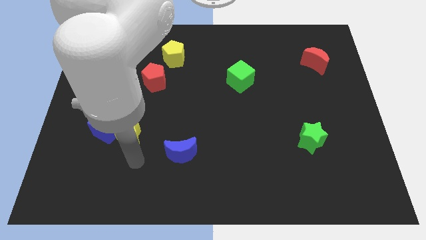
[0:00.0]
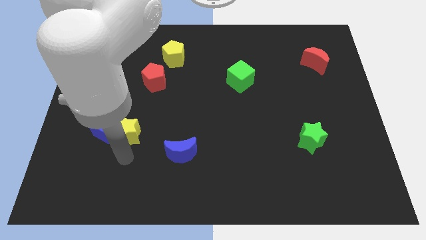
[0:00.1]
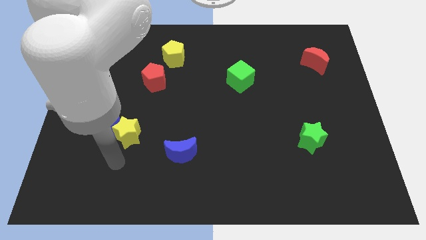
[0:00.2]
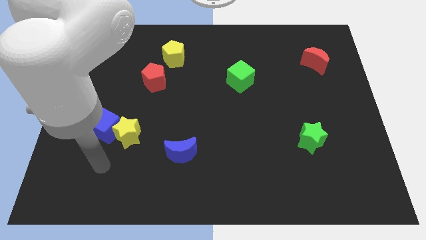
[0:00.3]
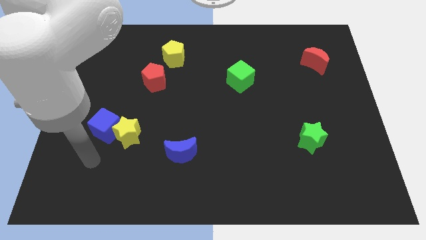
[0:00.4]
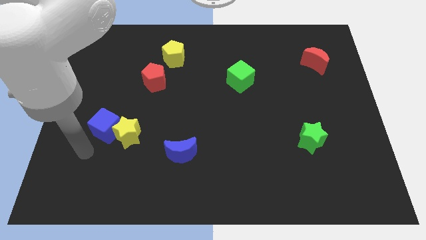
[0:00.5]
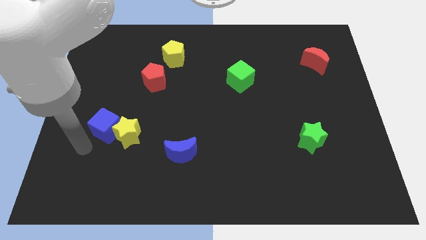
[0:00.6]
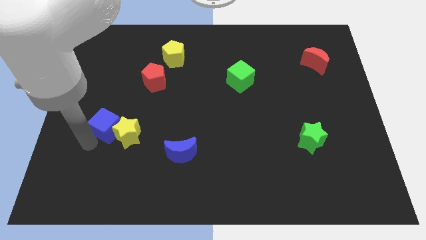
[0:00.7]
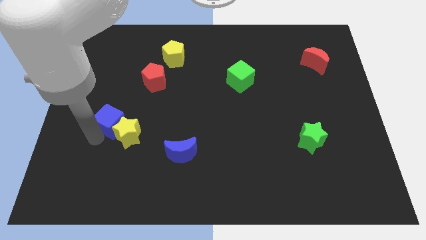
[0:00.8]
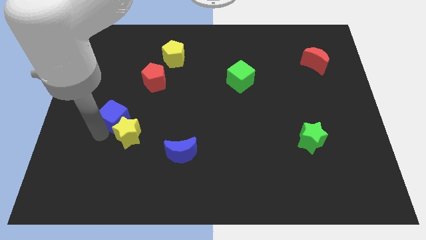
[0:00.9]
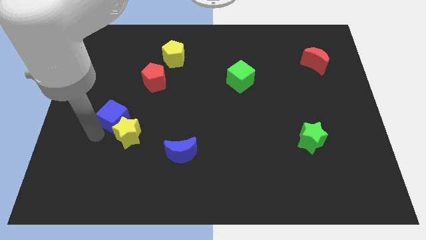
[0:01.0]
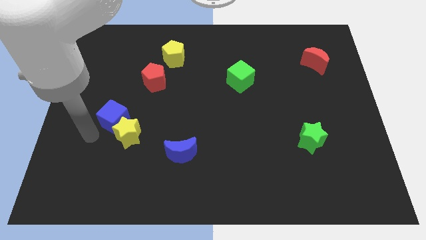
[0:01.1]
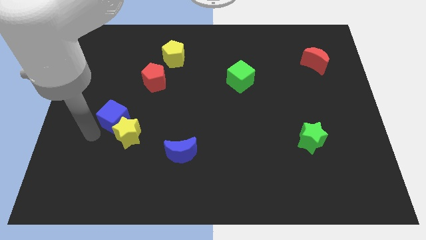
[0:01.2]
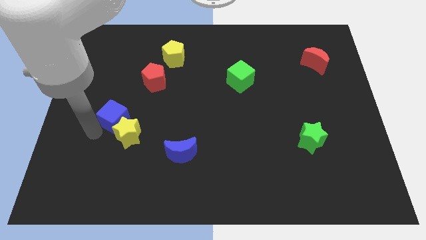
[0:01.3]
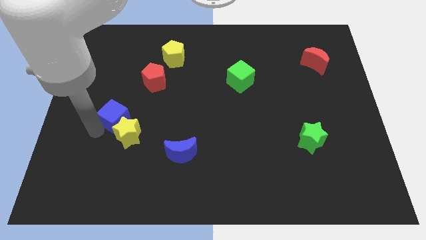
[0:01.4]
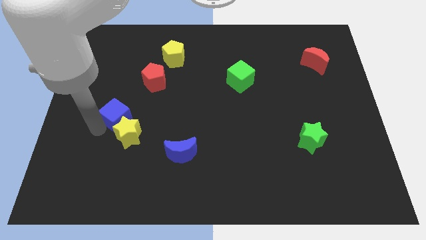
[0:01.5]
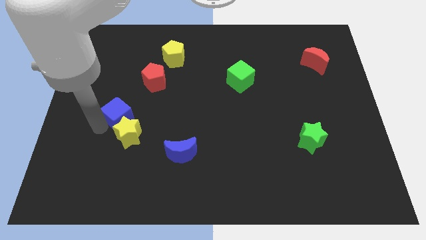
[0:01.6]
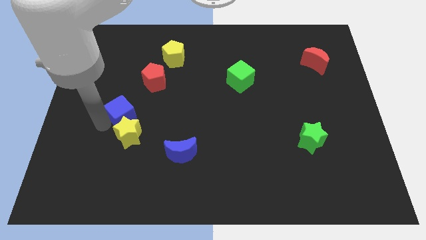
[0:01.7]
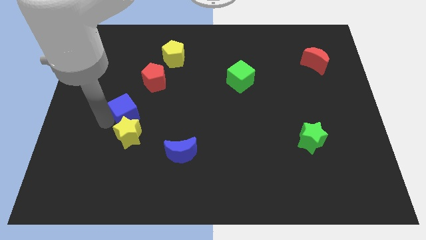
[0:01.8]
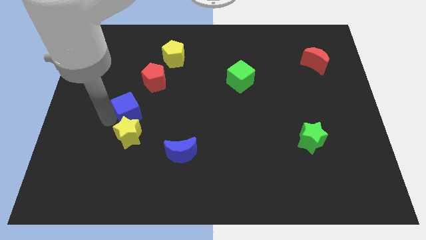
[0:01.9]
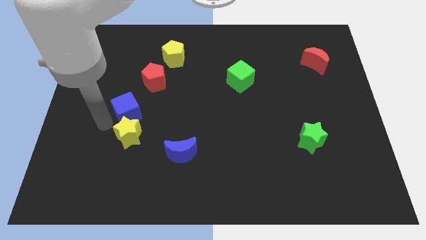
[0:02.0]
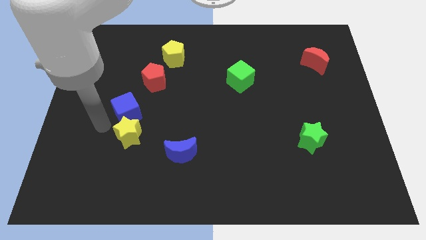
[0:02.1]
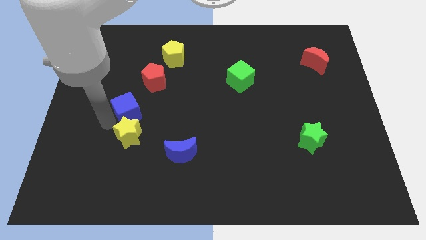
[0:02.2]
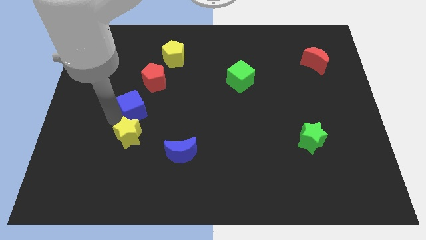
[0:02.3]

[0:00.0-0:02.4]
push the blue cube diagonally up and to the right a bit

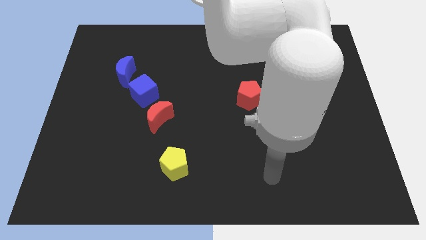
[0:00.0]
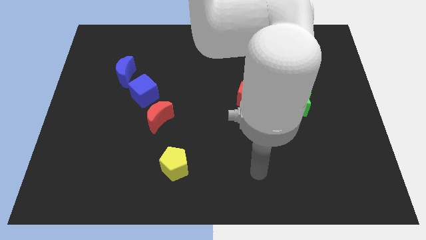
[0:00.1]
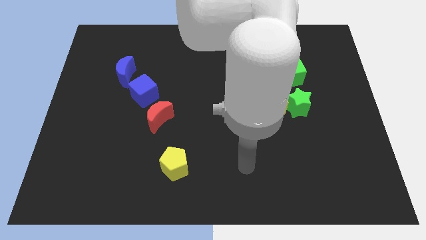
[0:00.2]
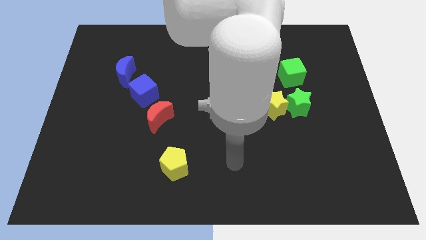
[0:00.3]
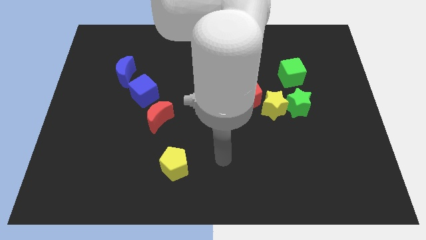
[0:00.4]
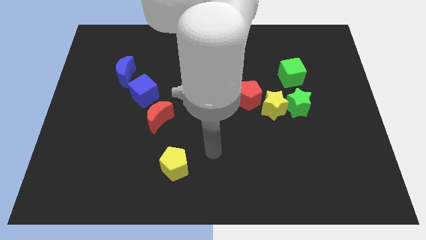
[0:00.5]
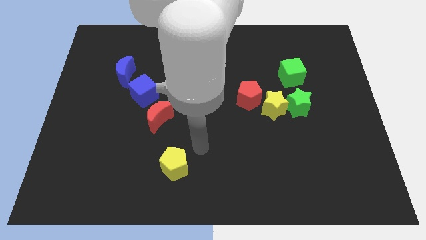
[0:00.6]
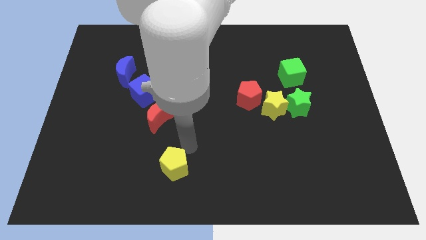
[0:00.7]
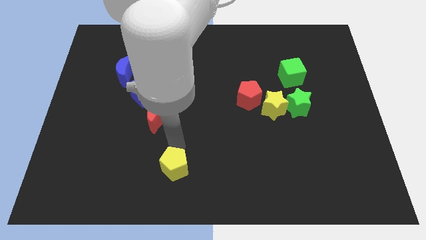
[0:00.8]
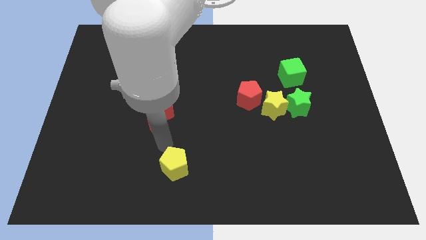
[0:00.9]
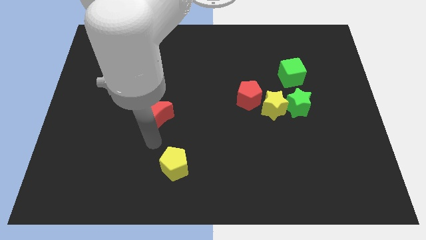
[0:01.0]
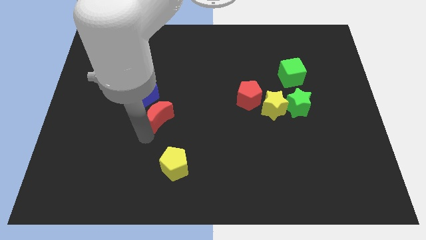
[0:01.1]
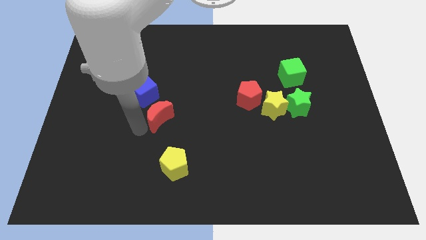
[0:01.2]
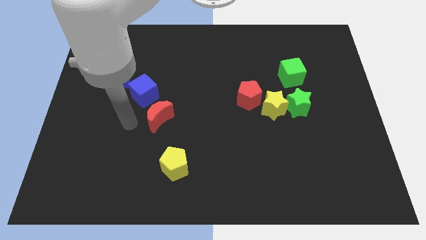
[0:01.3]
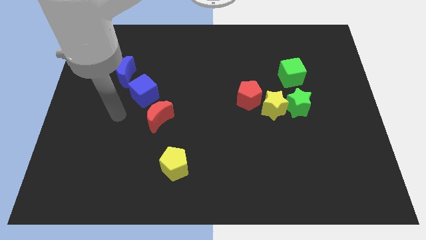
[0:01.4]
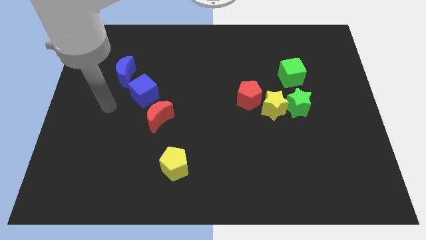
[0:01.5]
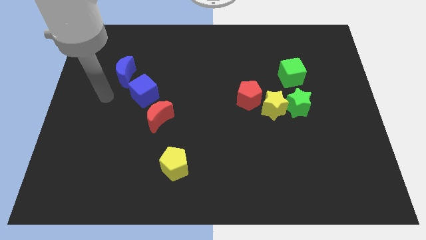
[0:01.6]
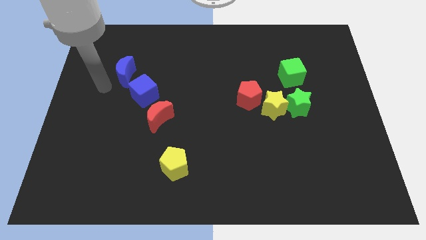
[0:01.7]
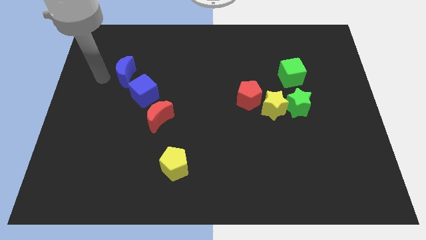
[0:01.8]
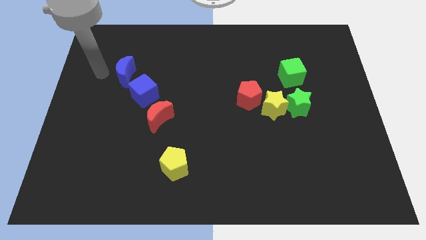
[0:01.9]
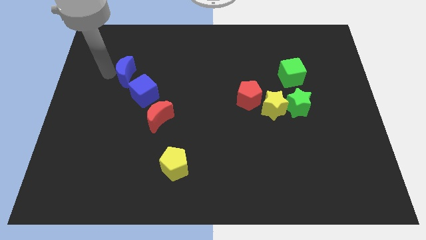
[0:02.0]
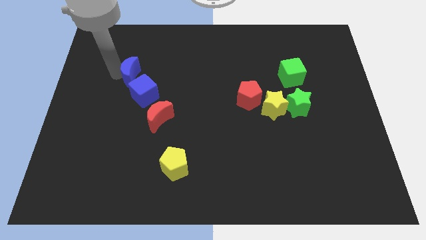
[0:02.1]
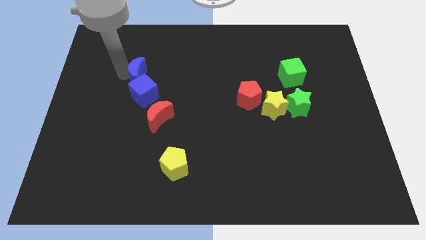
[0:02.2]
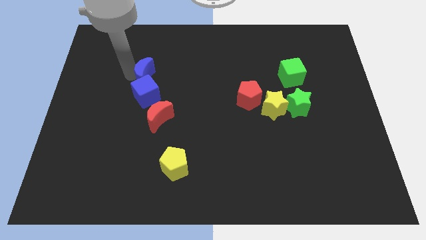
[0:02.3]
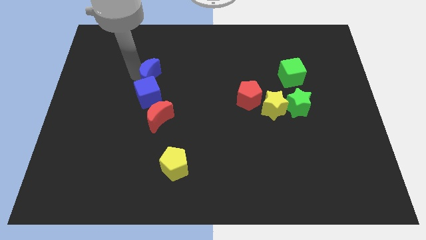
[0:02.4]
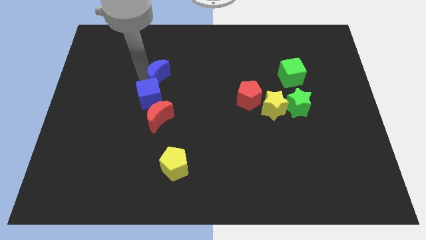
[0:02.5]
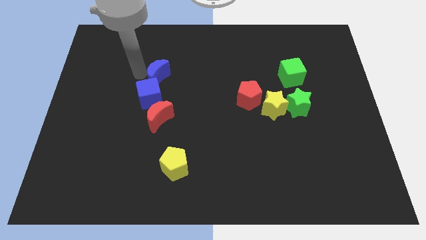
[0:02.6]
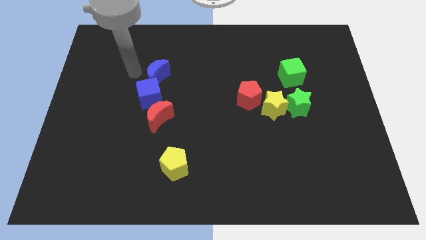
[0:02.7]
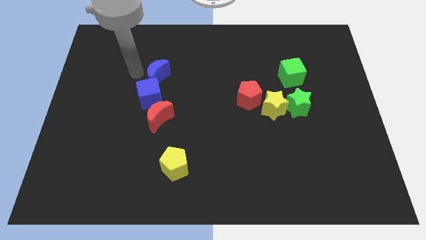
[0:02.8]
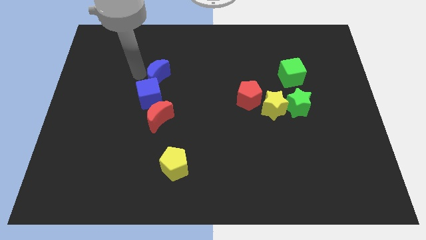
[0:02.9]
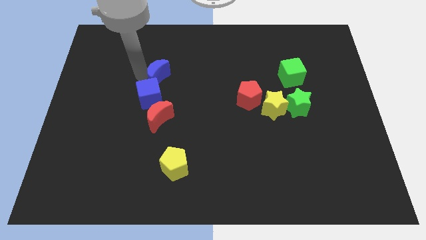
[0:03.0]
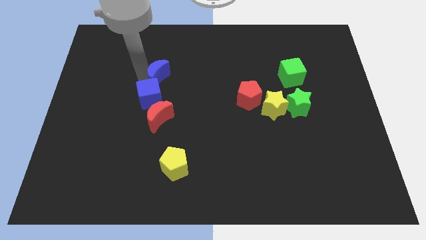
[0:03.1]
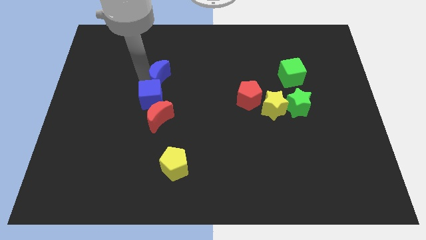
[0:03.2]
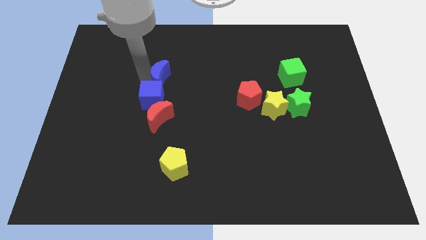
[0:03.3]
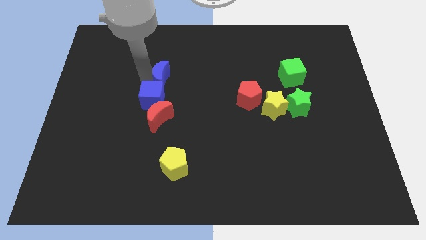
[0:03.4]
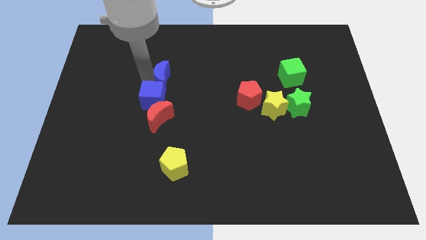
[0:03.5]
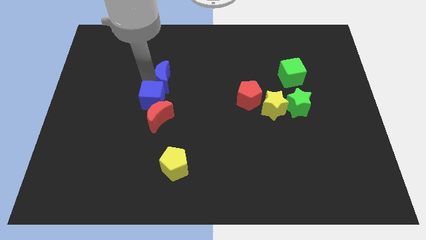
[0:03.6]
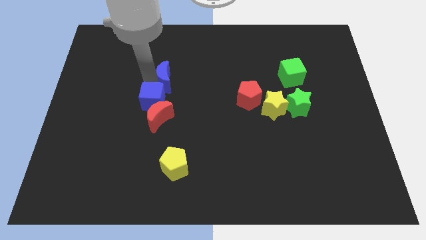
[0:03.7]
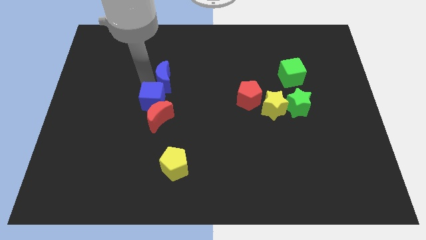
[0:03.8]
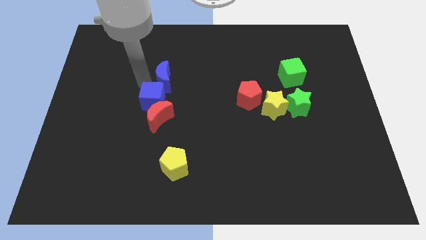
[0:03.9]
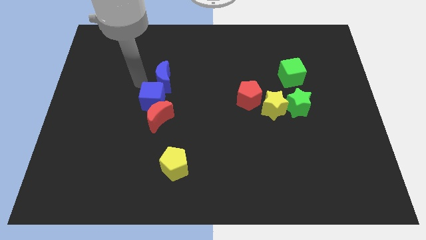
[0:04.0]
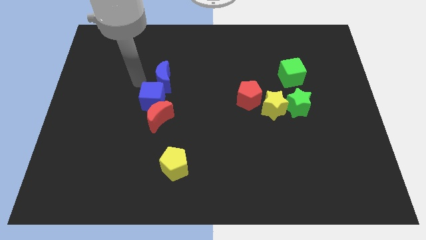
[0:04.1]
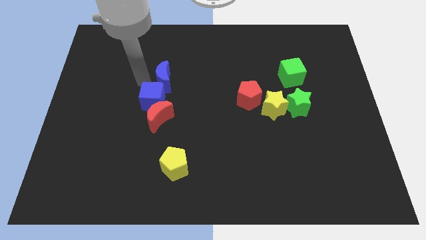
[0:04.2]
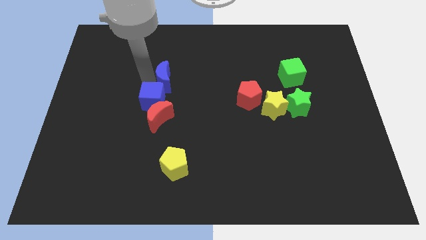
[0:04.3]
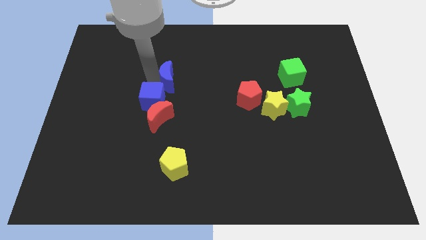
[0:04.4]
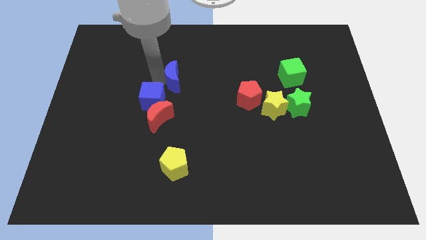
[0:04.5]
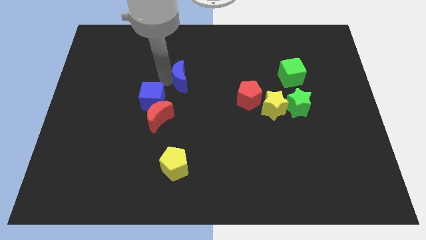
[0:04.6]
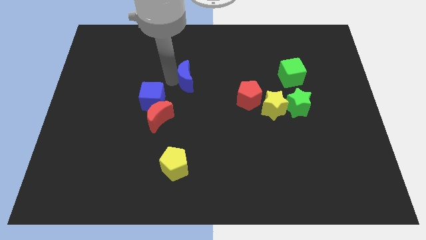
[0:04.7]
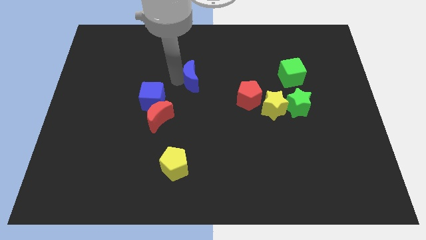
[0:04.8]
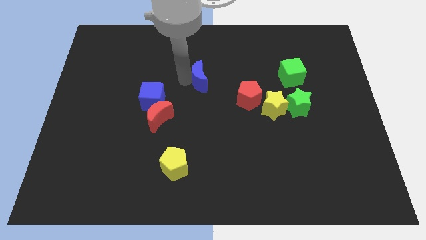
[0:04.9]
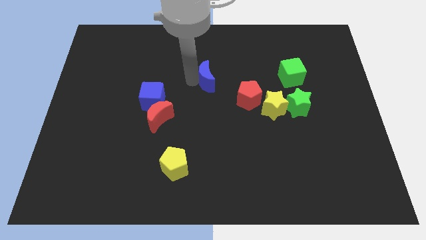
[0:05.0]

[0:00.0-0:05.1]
move the blue moon to the right

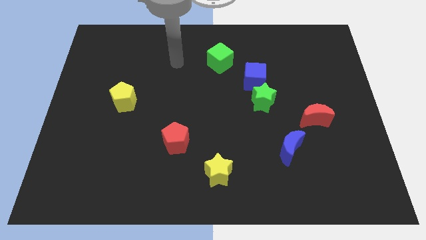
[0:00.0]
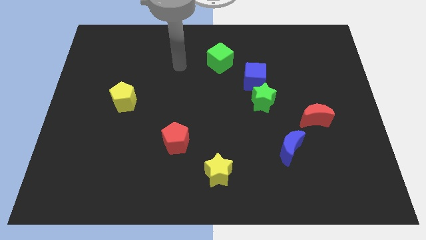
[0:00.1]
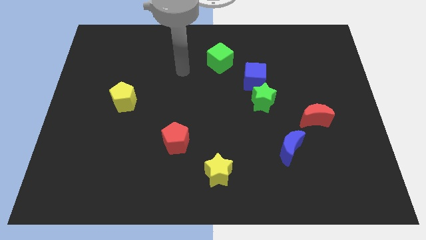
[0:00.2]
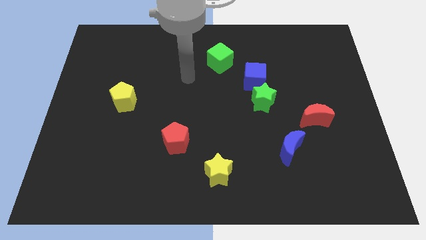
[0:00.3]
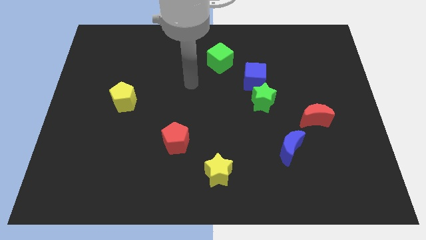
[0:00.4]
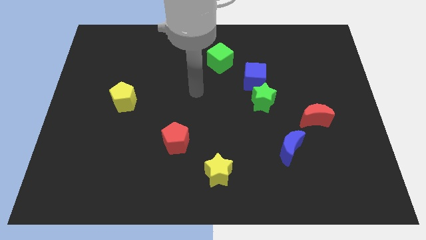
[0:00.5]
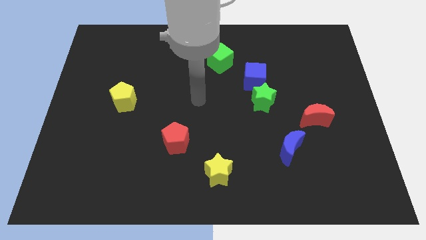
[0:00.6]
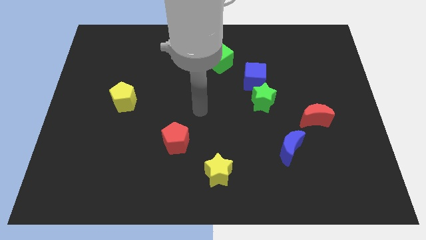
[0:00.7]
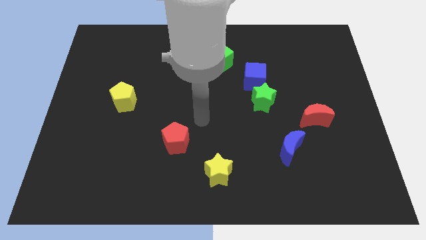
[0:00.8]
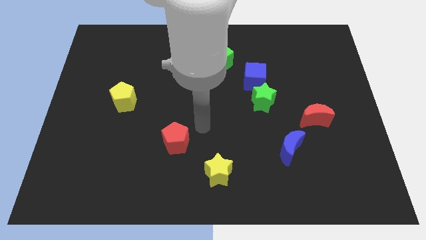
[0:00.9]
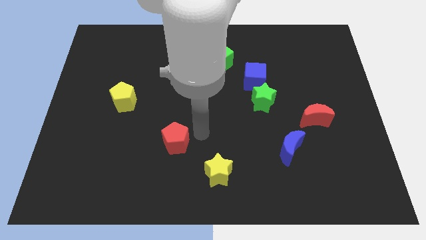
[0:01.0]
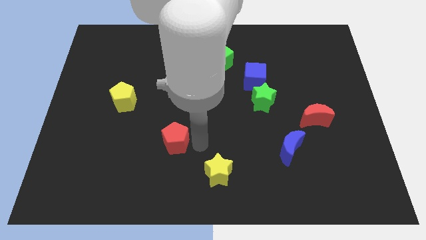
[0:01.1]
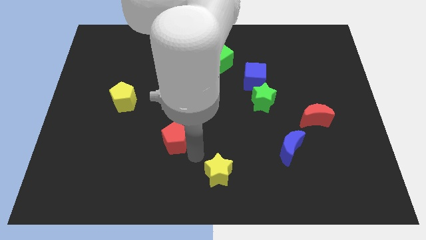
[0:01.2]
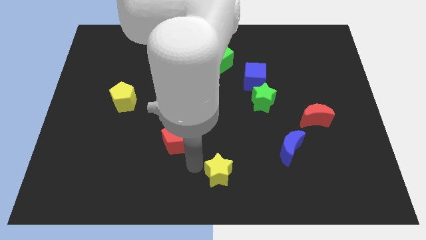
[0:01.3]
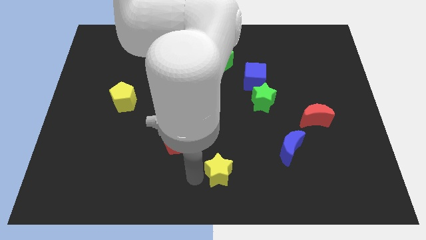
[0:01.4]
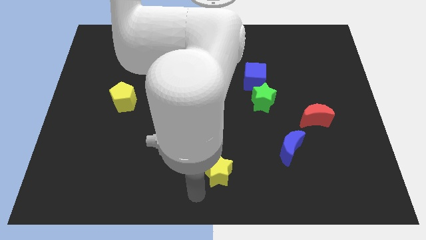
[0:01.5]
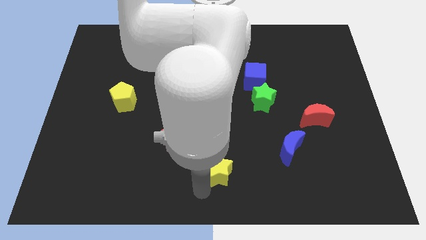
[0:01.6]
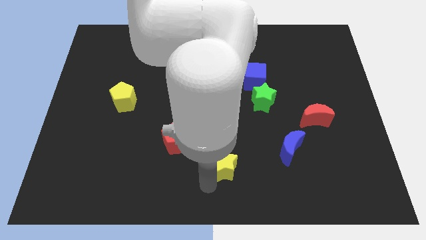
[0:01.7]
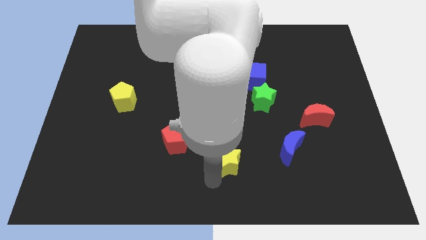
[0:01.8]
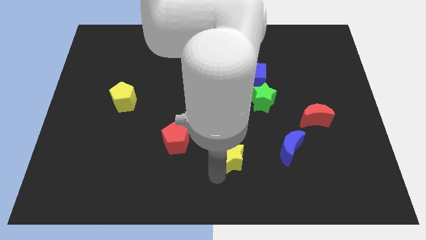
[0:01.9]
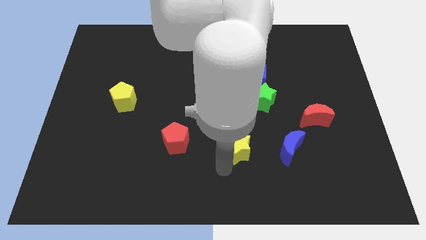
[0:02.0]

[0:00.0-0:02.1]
slightly move the yellow star up and to the right diagonally
